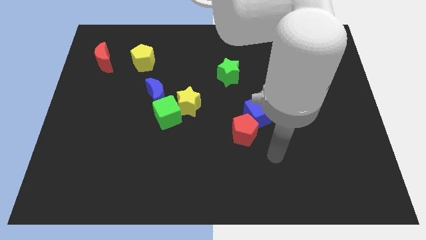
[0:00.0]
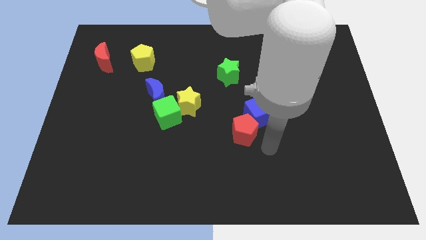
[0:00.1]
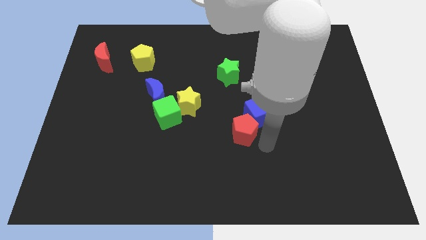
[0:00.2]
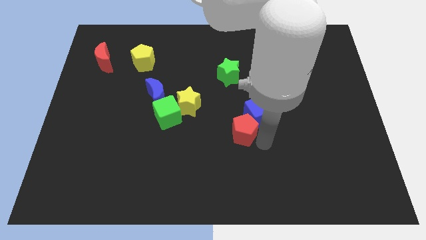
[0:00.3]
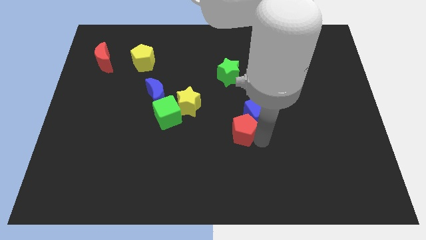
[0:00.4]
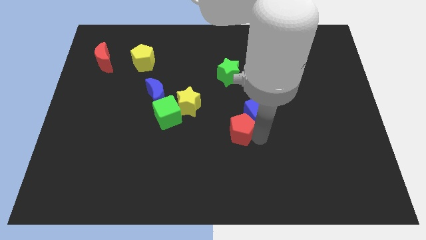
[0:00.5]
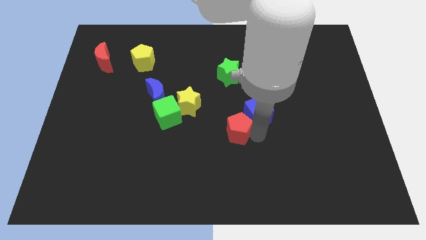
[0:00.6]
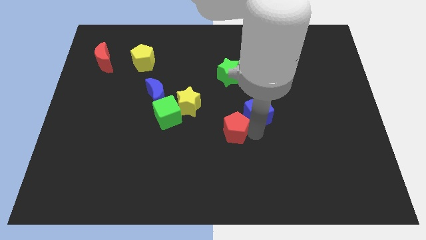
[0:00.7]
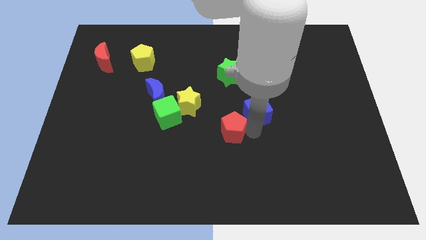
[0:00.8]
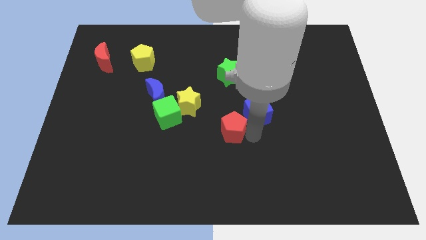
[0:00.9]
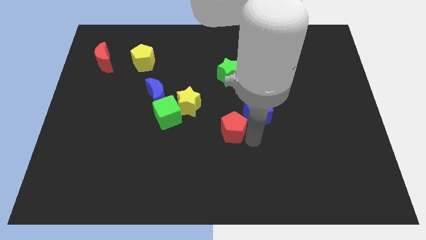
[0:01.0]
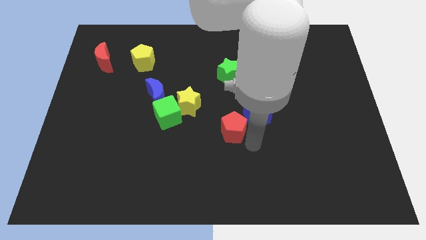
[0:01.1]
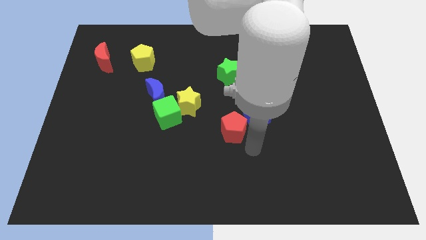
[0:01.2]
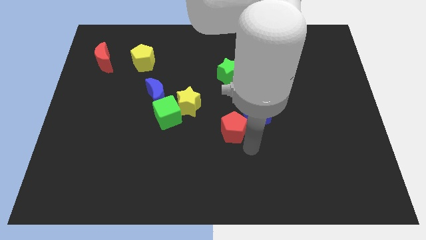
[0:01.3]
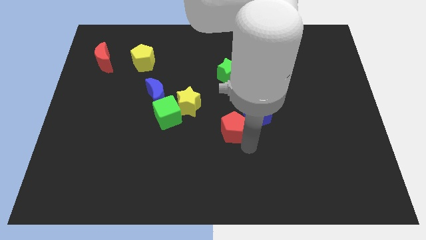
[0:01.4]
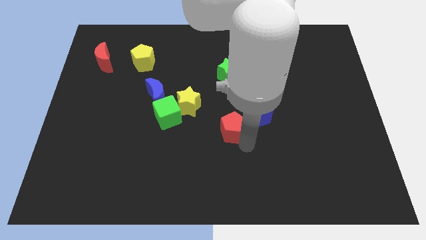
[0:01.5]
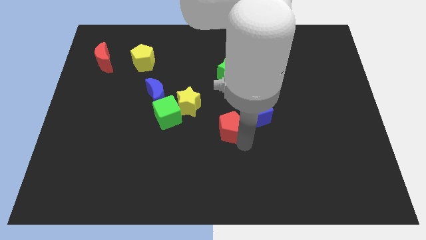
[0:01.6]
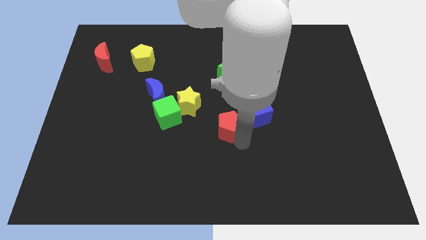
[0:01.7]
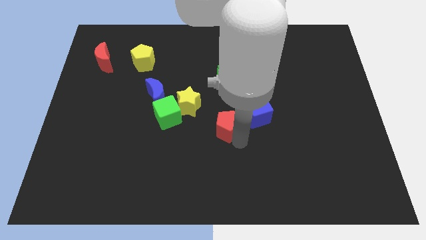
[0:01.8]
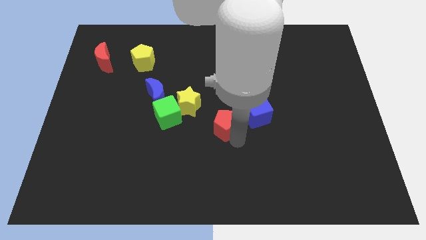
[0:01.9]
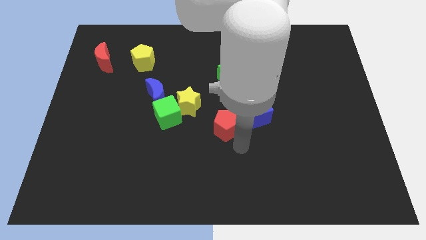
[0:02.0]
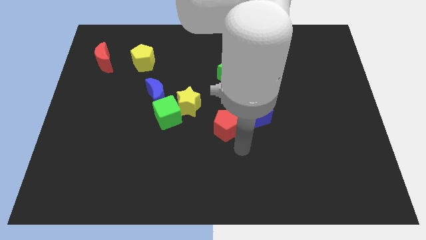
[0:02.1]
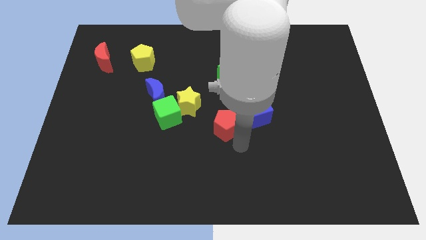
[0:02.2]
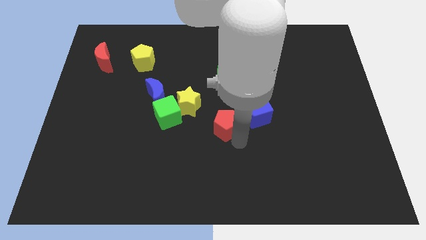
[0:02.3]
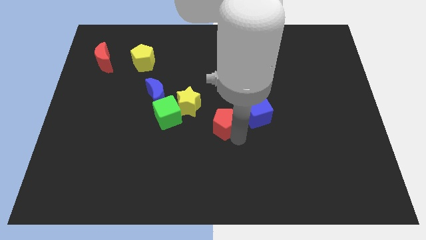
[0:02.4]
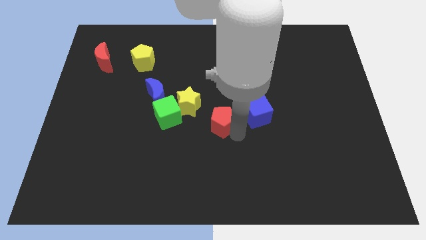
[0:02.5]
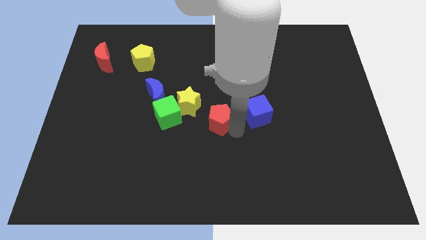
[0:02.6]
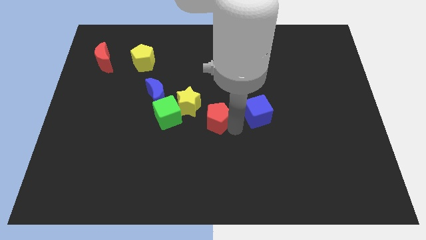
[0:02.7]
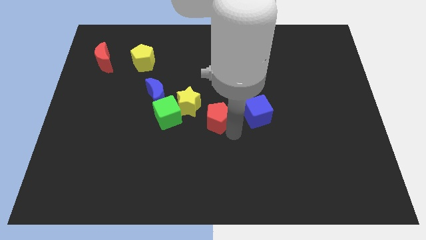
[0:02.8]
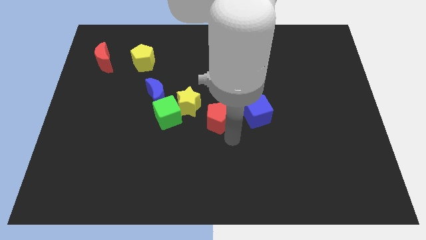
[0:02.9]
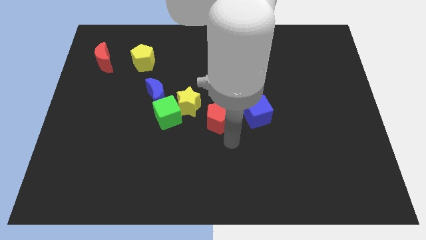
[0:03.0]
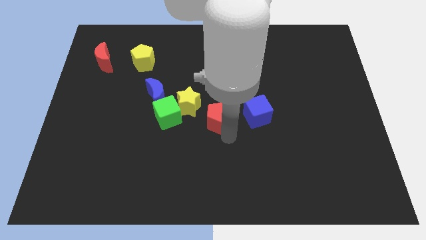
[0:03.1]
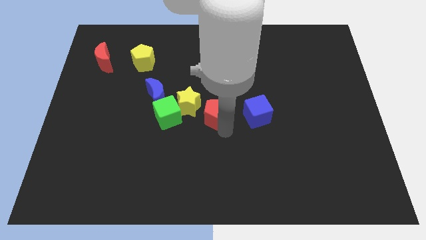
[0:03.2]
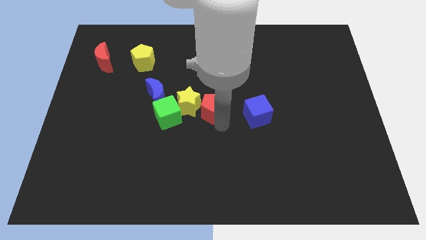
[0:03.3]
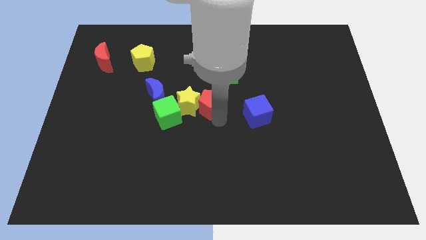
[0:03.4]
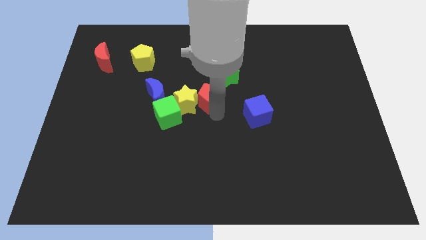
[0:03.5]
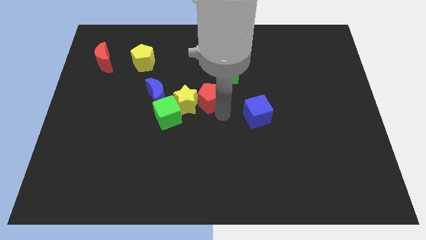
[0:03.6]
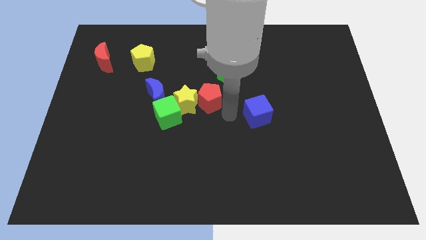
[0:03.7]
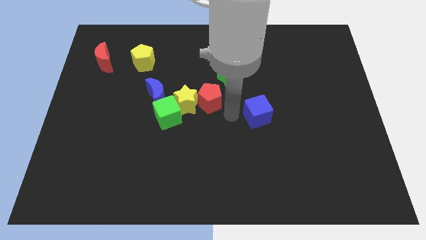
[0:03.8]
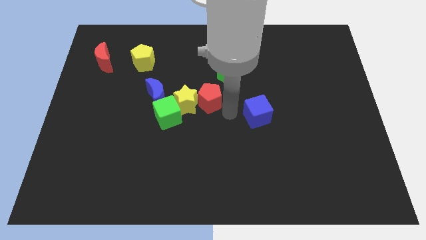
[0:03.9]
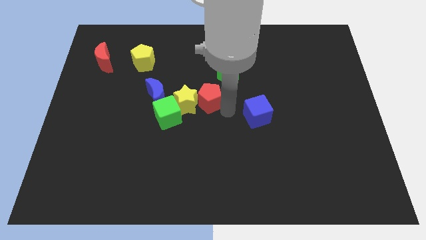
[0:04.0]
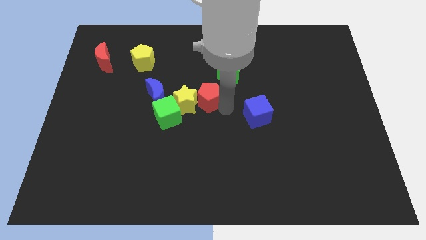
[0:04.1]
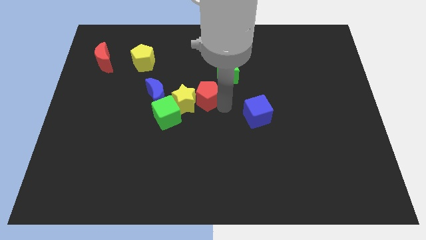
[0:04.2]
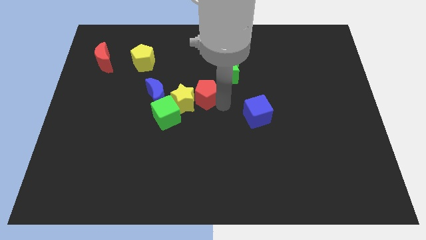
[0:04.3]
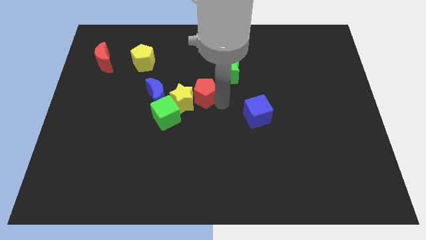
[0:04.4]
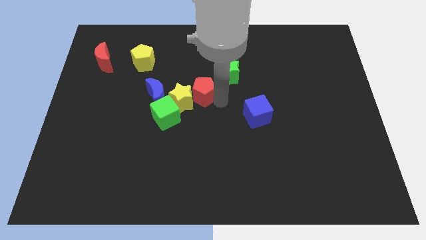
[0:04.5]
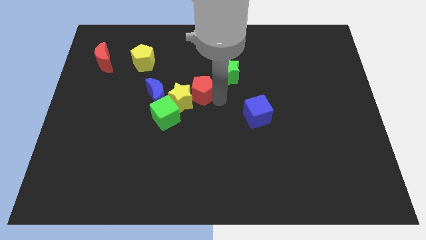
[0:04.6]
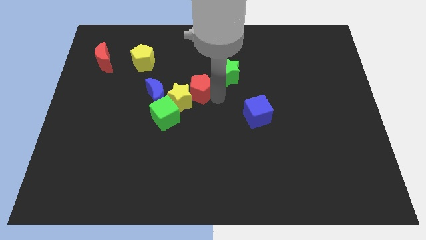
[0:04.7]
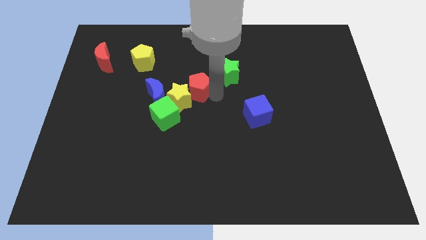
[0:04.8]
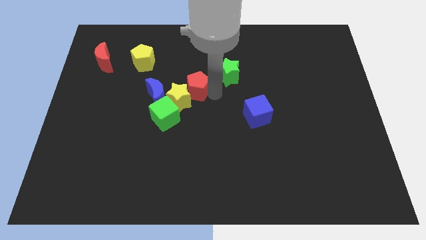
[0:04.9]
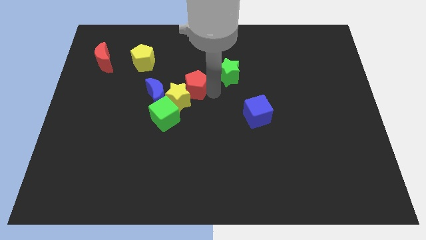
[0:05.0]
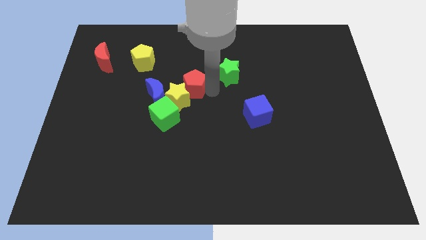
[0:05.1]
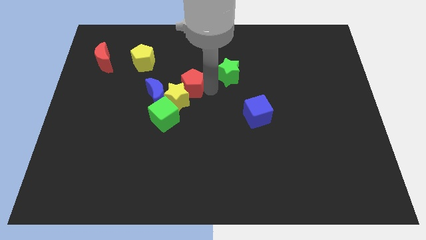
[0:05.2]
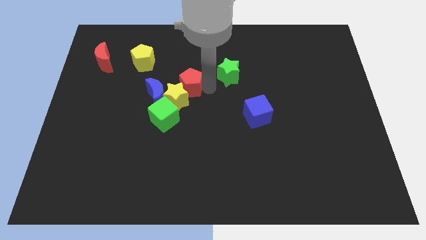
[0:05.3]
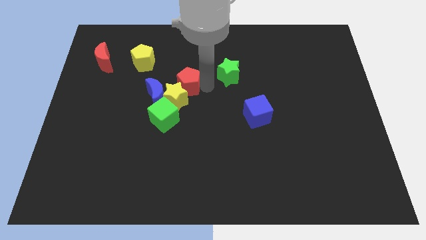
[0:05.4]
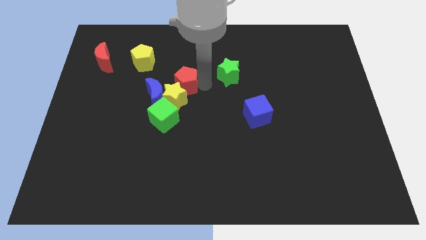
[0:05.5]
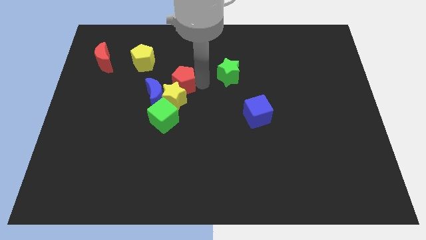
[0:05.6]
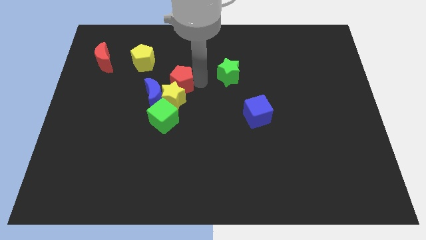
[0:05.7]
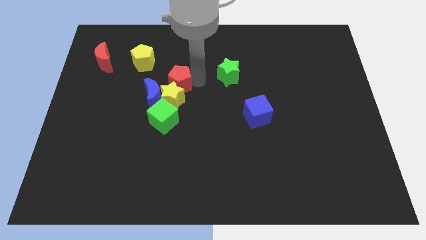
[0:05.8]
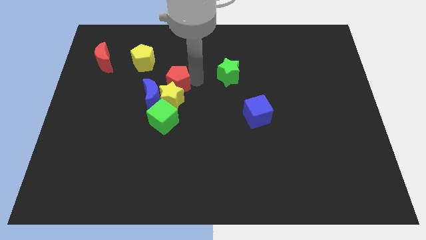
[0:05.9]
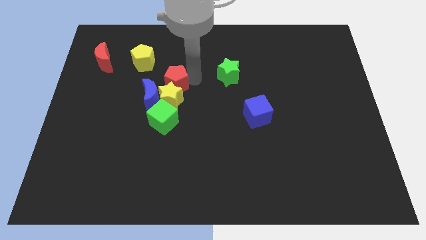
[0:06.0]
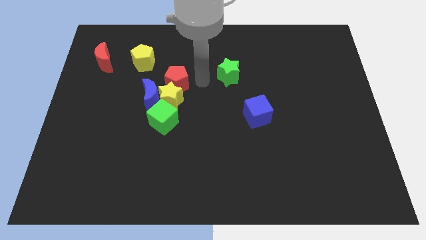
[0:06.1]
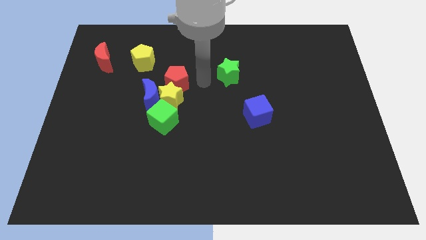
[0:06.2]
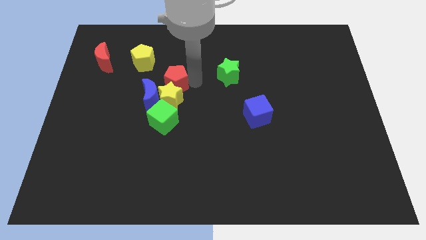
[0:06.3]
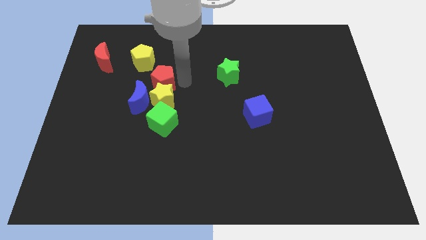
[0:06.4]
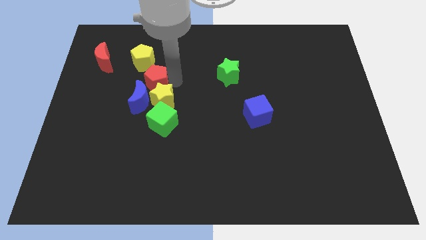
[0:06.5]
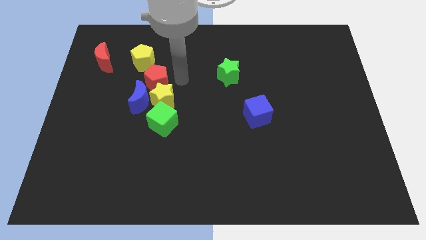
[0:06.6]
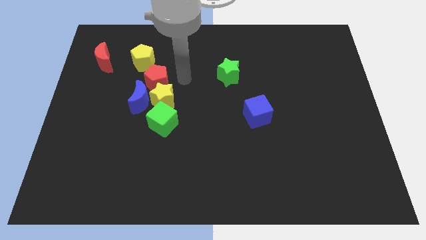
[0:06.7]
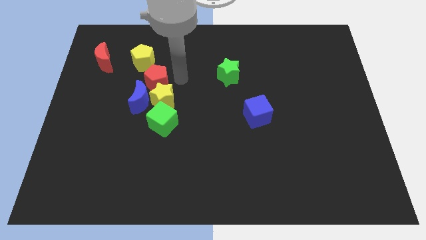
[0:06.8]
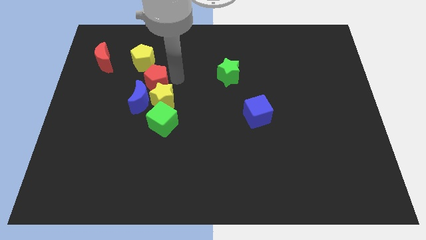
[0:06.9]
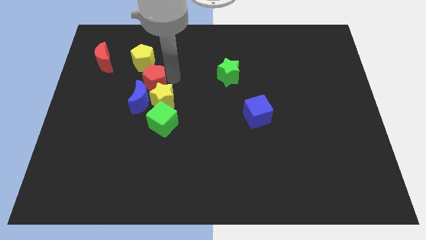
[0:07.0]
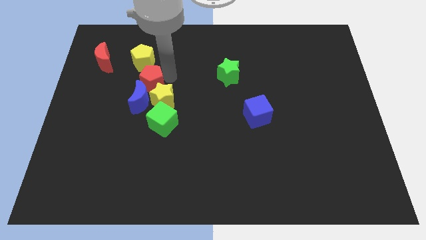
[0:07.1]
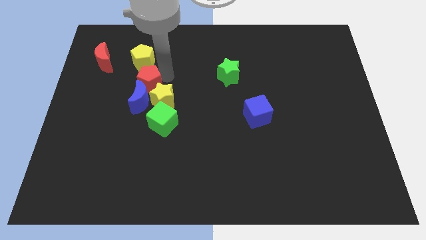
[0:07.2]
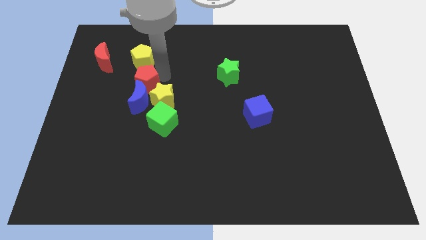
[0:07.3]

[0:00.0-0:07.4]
move the red pentagon to the top left side of the blue moon

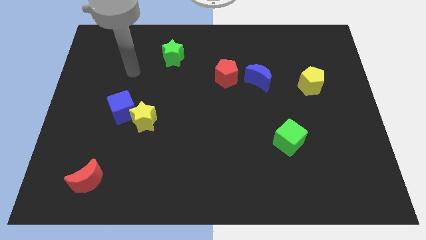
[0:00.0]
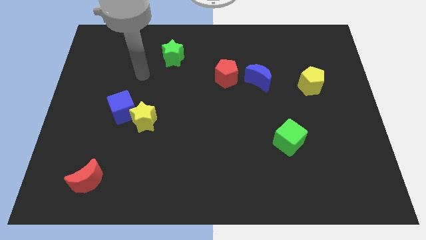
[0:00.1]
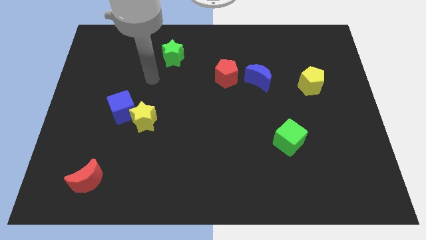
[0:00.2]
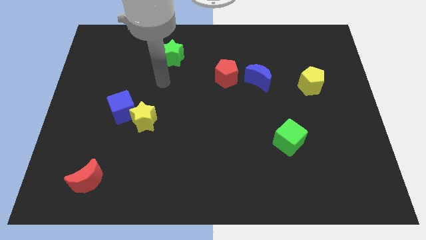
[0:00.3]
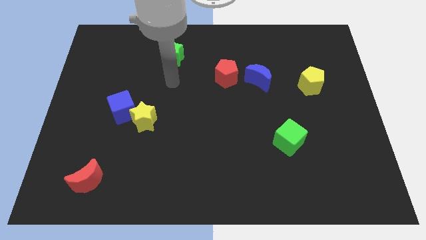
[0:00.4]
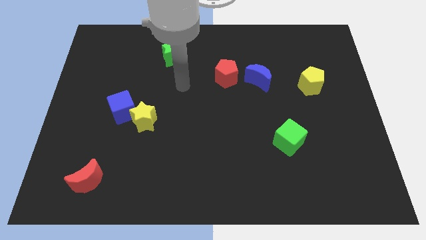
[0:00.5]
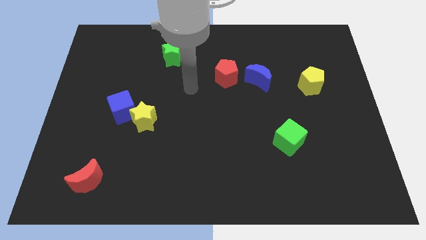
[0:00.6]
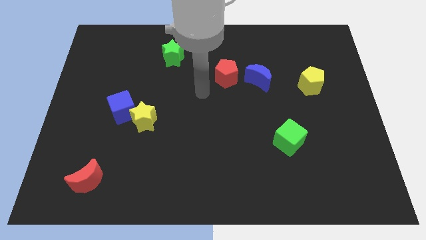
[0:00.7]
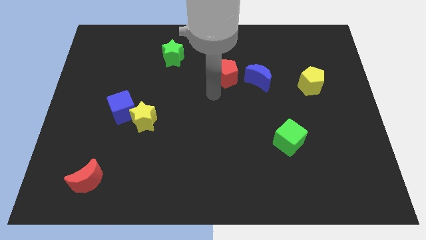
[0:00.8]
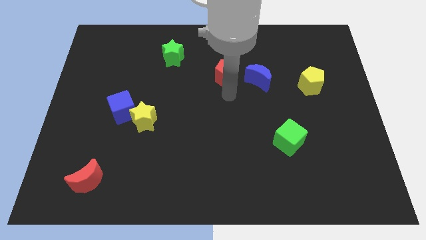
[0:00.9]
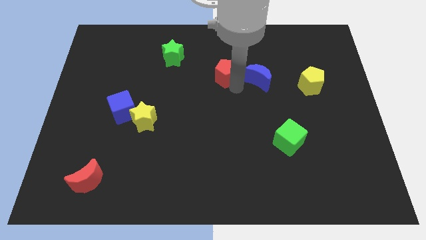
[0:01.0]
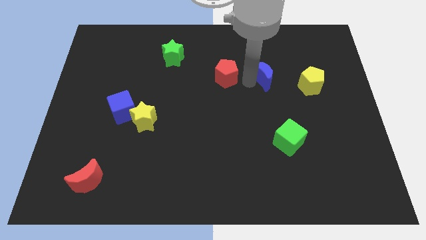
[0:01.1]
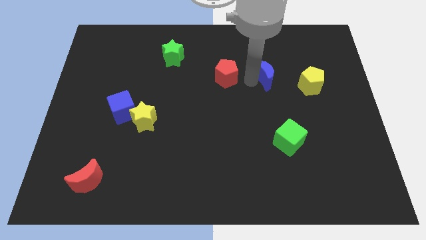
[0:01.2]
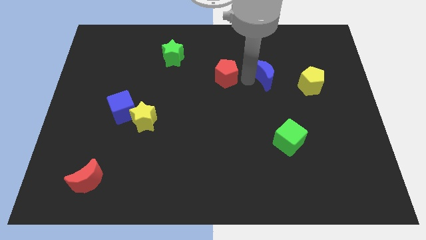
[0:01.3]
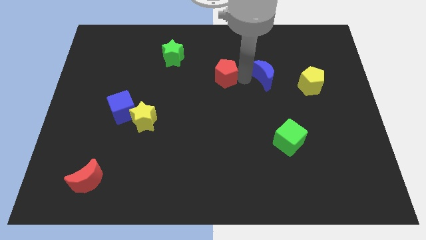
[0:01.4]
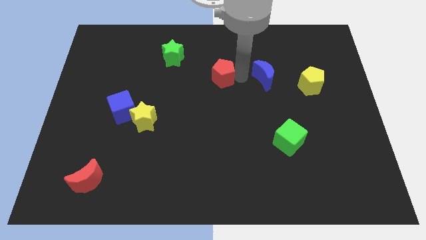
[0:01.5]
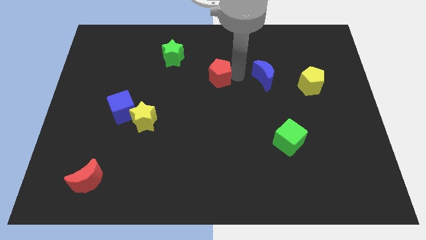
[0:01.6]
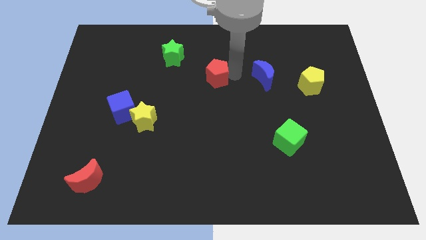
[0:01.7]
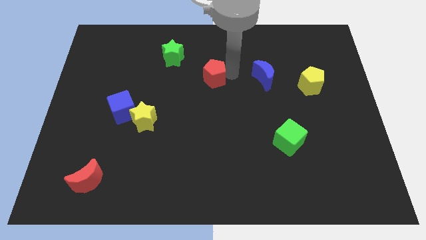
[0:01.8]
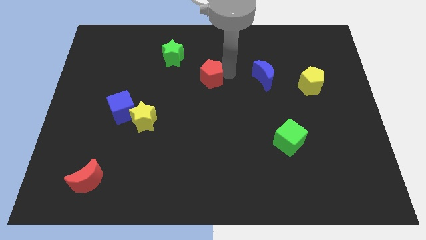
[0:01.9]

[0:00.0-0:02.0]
put the red pentagon to the bottom right side of the green star
